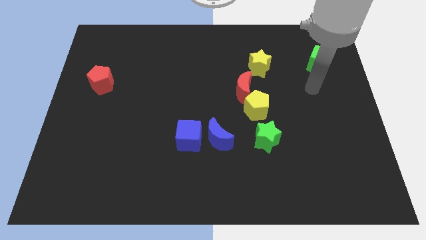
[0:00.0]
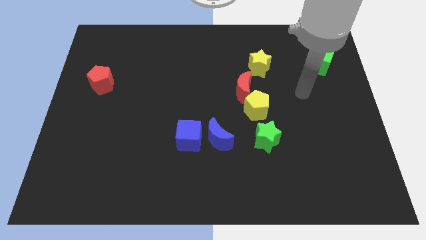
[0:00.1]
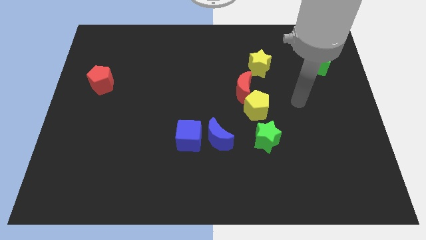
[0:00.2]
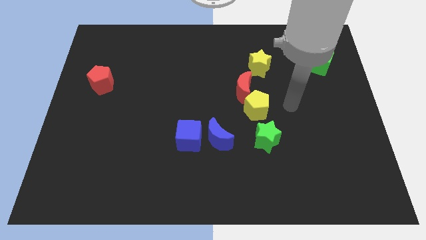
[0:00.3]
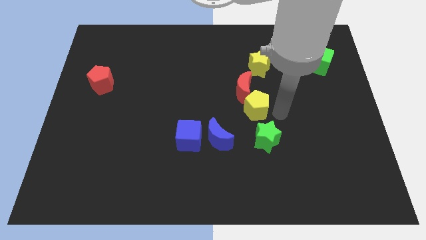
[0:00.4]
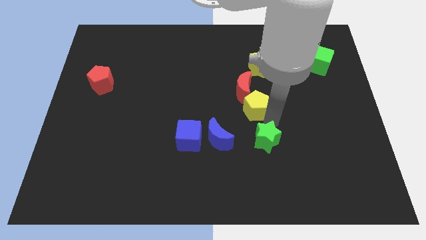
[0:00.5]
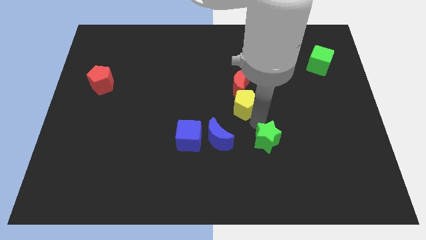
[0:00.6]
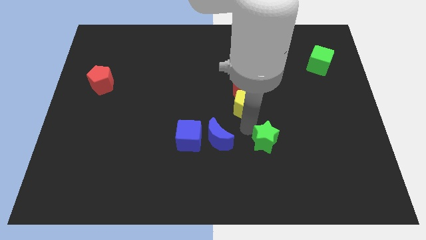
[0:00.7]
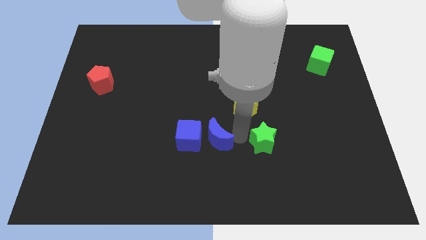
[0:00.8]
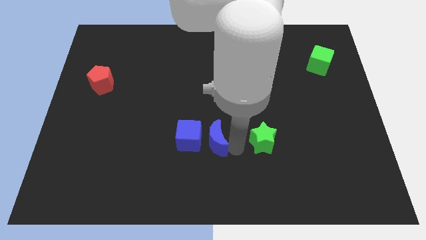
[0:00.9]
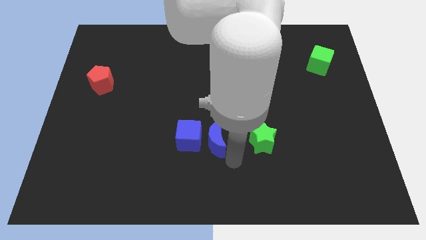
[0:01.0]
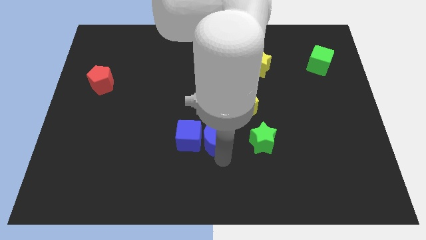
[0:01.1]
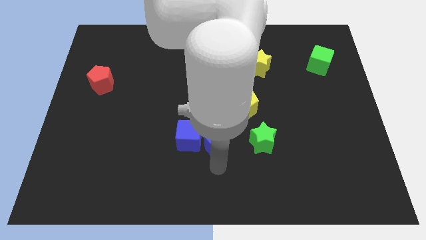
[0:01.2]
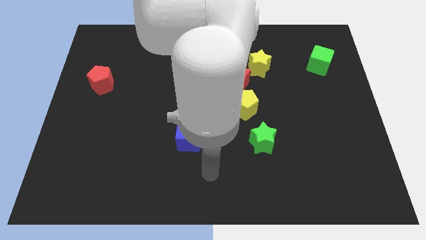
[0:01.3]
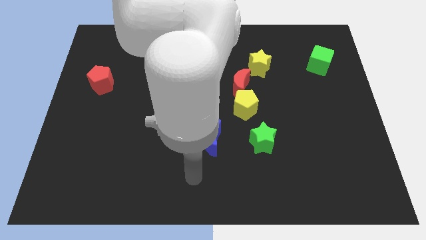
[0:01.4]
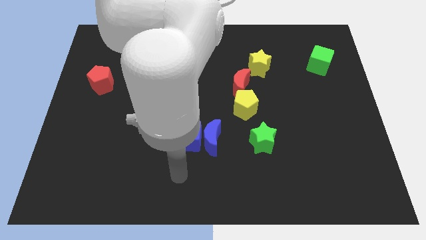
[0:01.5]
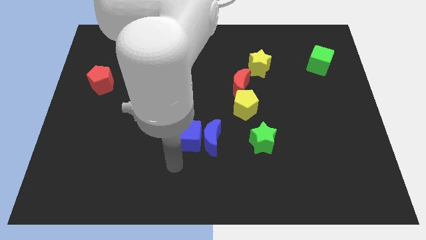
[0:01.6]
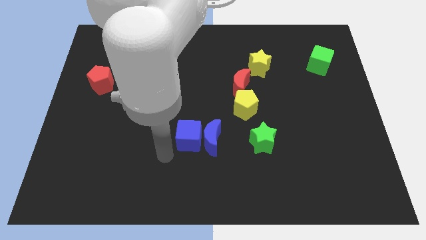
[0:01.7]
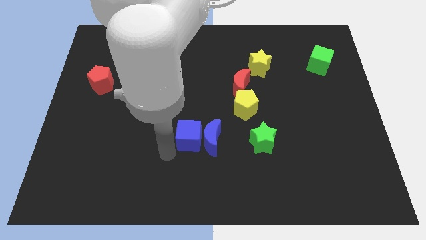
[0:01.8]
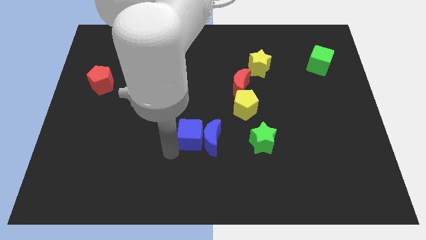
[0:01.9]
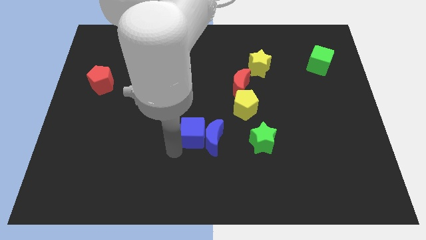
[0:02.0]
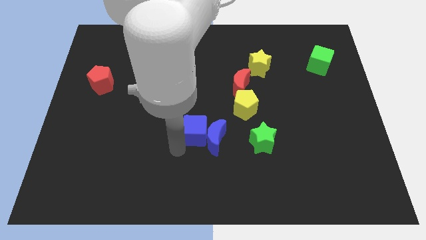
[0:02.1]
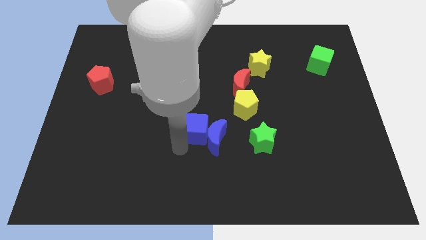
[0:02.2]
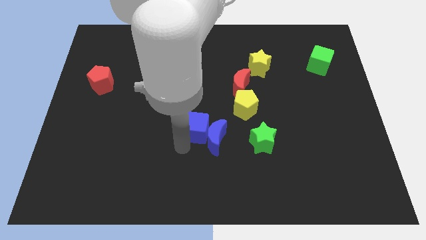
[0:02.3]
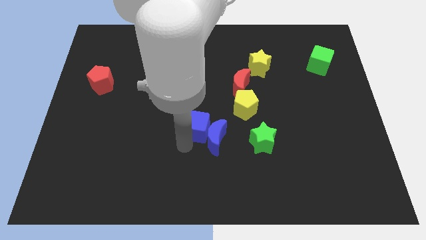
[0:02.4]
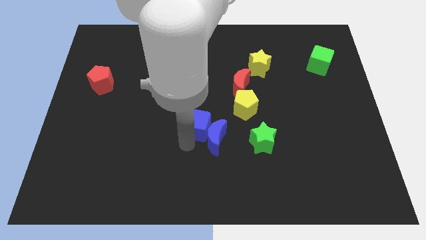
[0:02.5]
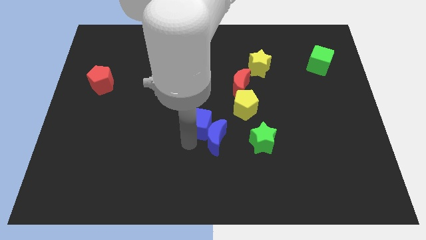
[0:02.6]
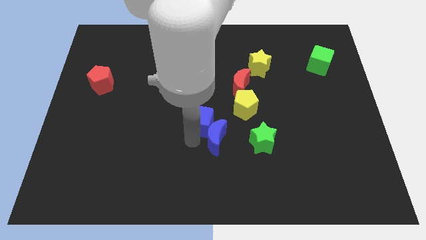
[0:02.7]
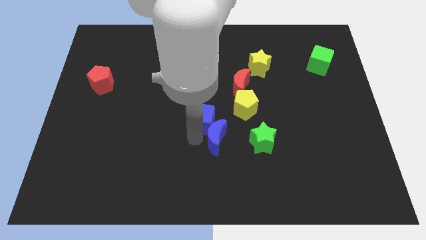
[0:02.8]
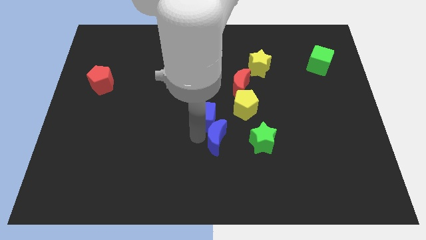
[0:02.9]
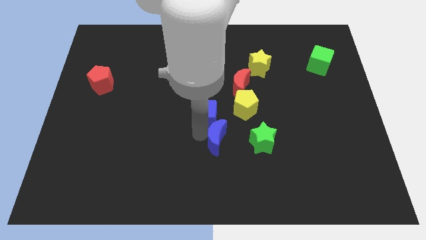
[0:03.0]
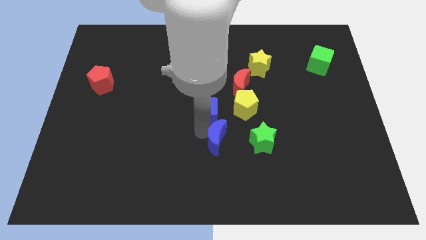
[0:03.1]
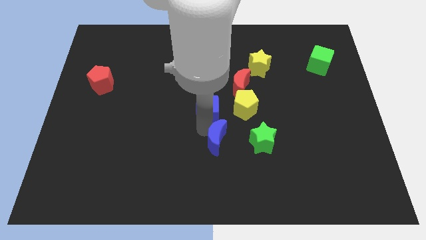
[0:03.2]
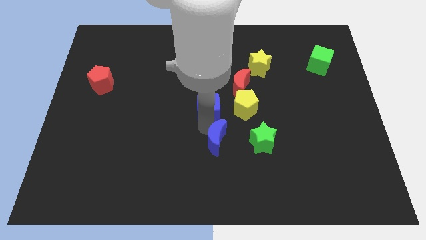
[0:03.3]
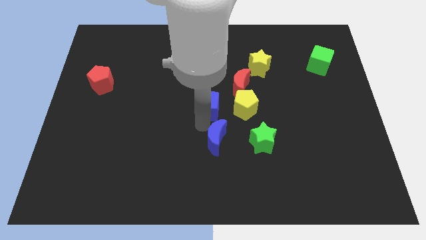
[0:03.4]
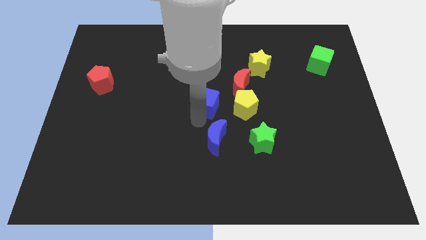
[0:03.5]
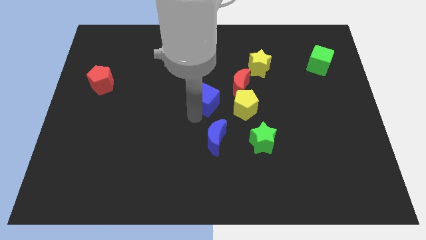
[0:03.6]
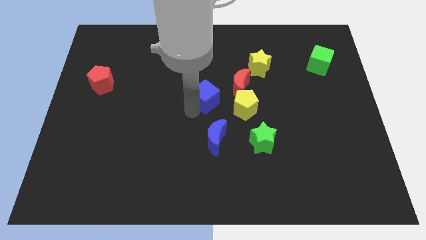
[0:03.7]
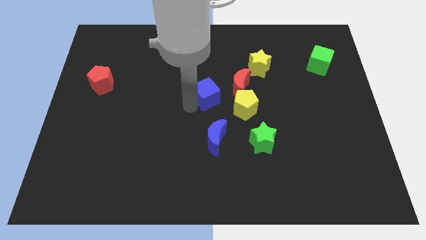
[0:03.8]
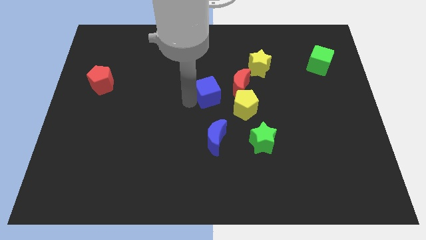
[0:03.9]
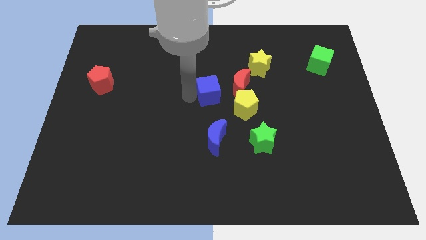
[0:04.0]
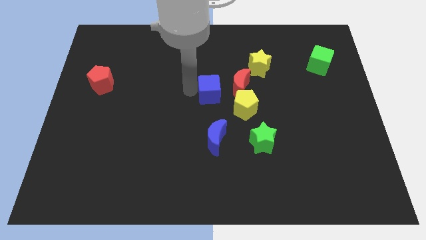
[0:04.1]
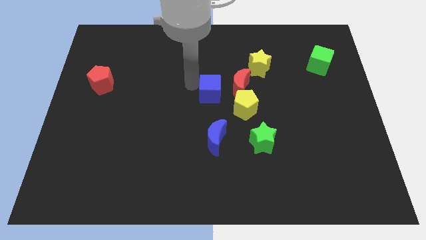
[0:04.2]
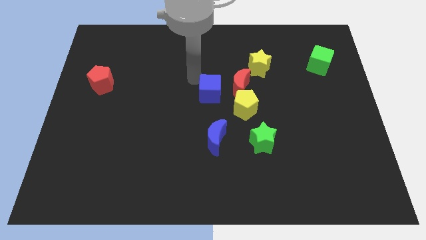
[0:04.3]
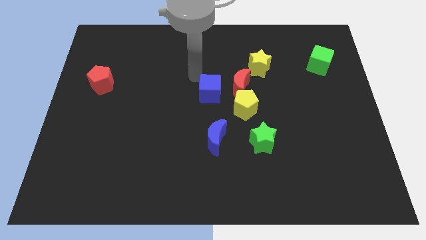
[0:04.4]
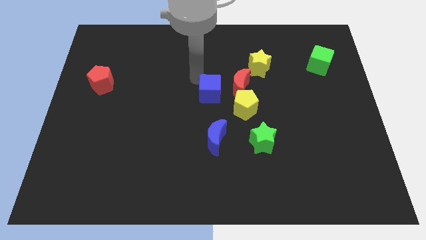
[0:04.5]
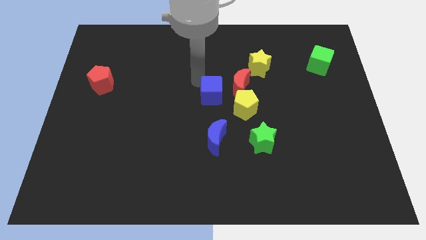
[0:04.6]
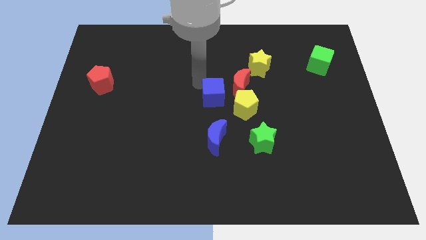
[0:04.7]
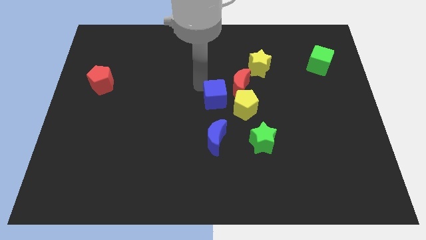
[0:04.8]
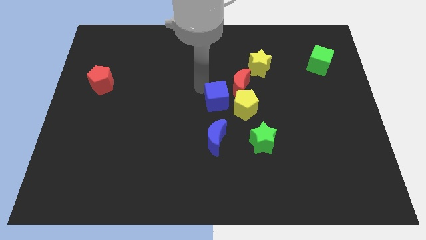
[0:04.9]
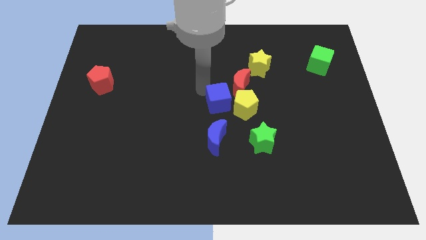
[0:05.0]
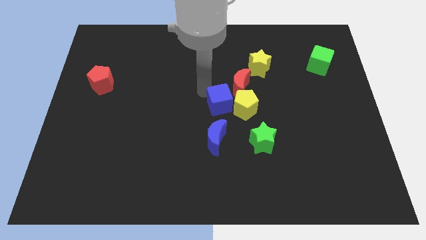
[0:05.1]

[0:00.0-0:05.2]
put the blue cube next to the yellow pentagon

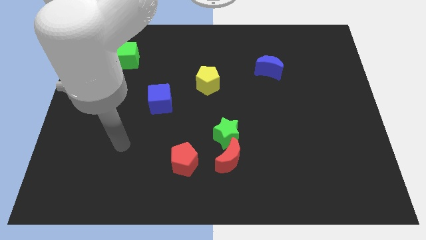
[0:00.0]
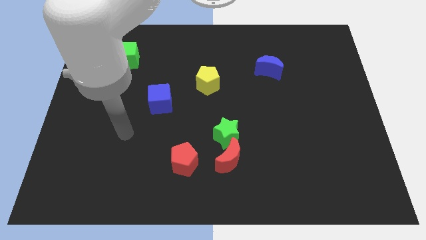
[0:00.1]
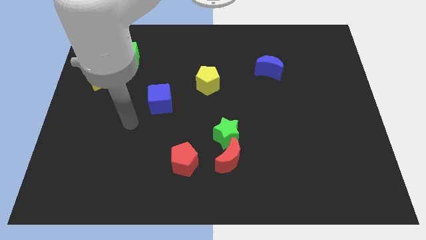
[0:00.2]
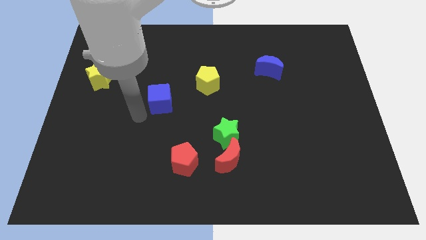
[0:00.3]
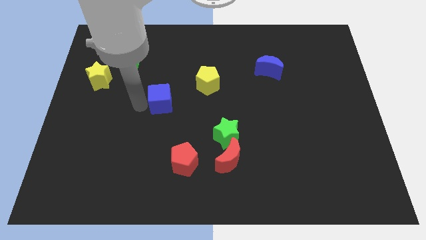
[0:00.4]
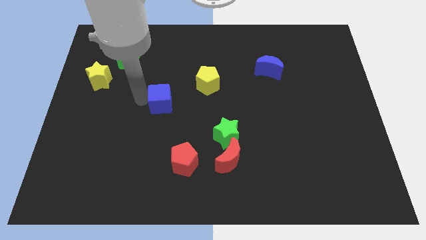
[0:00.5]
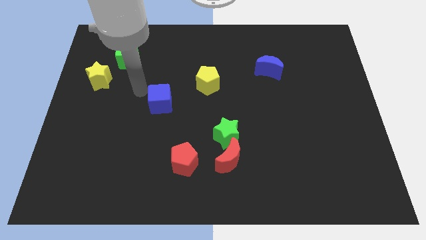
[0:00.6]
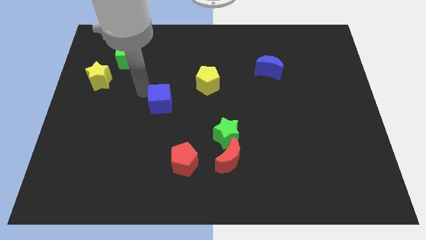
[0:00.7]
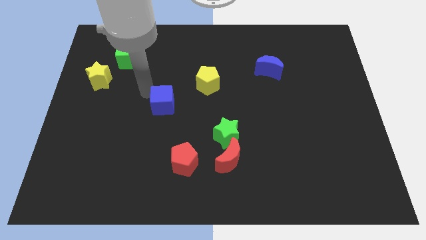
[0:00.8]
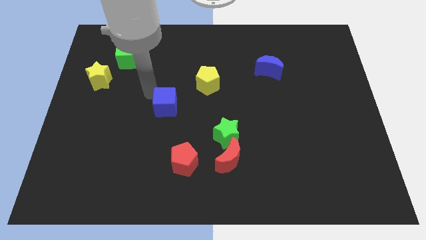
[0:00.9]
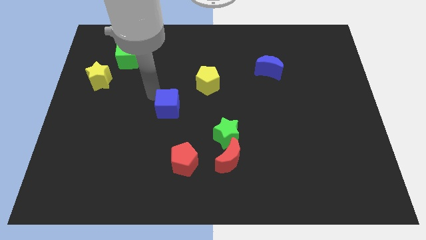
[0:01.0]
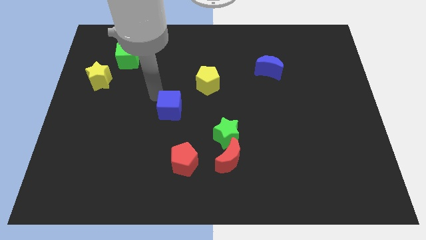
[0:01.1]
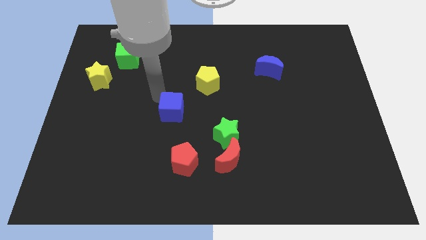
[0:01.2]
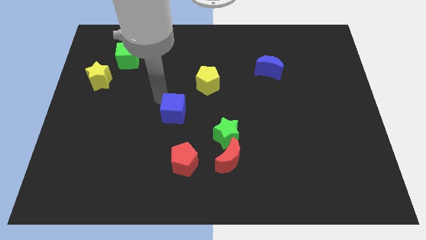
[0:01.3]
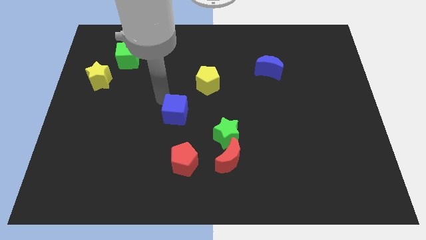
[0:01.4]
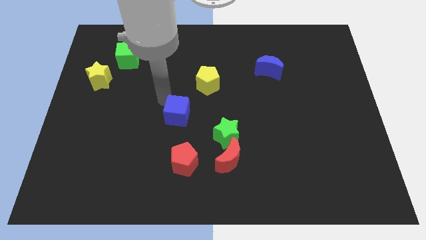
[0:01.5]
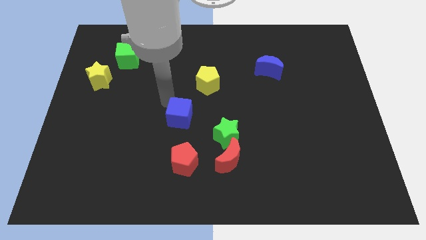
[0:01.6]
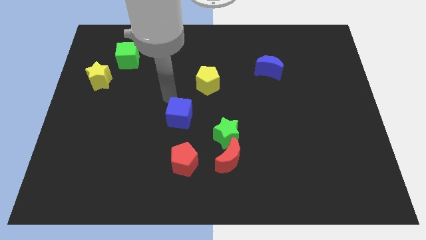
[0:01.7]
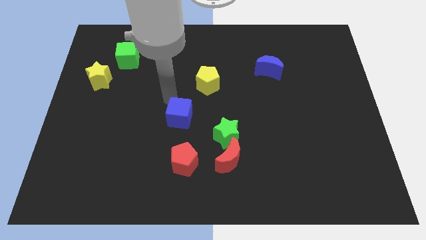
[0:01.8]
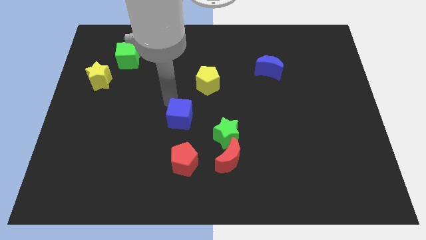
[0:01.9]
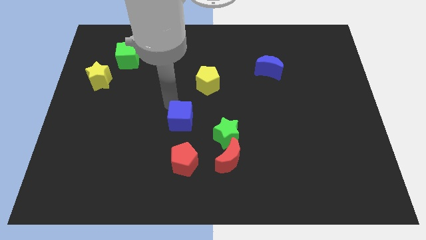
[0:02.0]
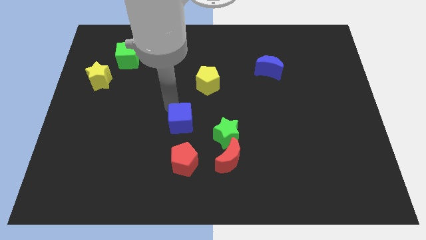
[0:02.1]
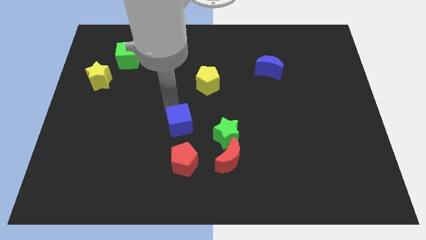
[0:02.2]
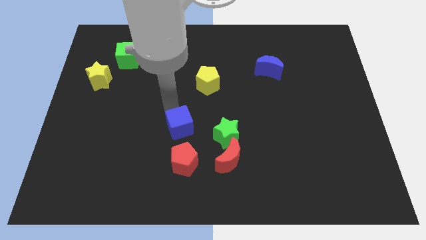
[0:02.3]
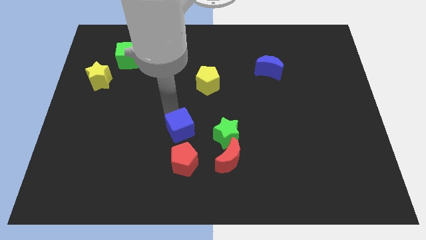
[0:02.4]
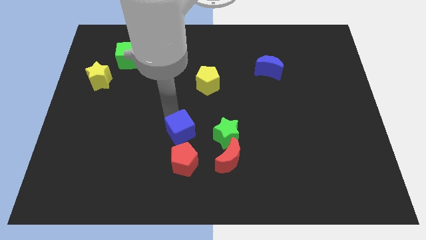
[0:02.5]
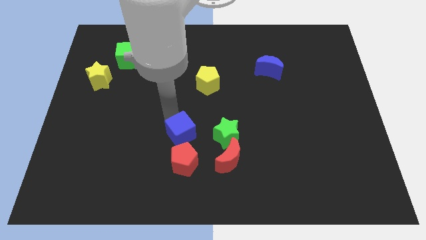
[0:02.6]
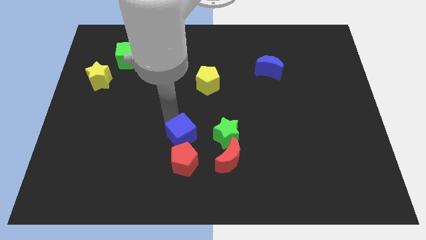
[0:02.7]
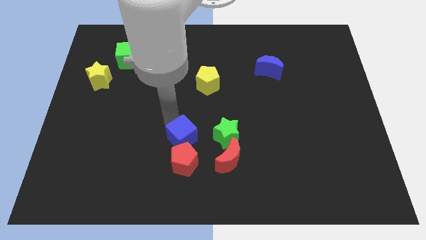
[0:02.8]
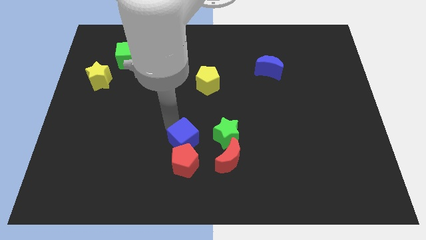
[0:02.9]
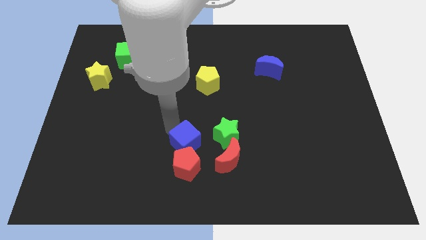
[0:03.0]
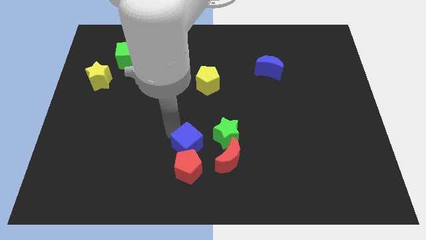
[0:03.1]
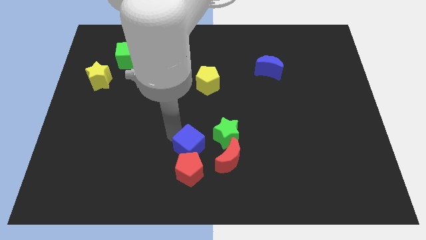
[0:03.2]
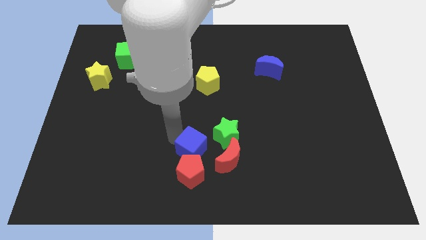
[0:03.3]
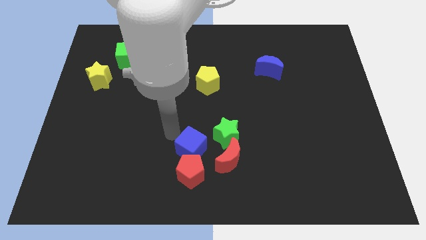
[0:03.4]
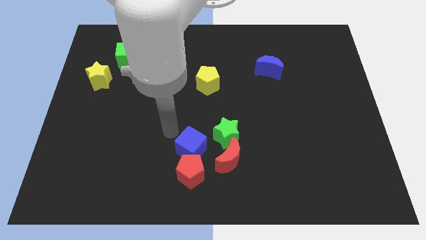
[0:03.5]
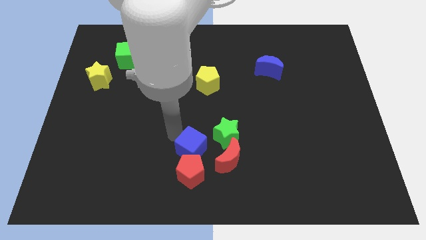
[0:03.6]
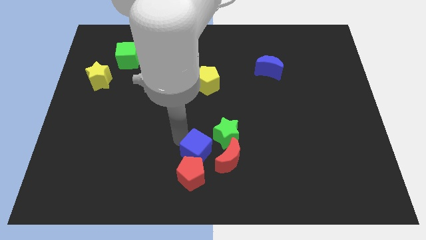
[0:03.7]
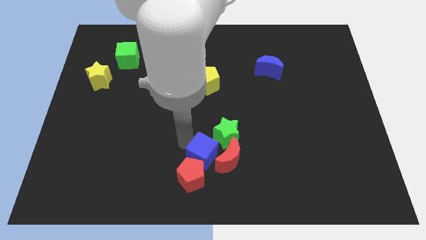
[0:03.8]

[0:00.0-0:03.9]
put the blue cube towards the red moon
